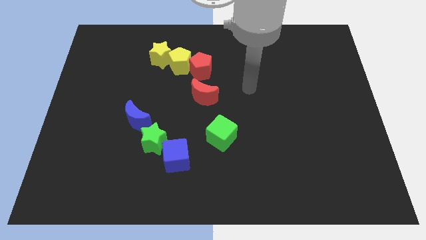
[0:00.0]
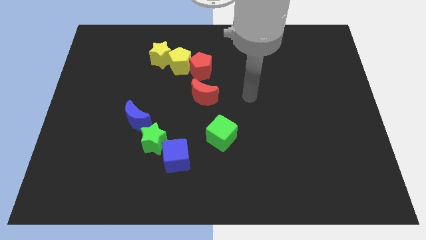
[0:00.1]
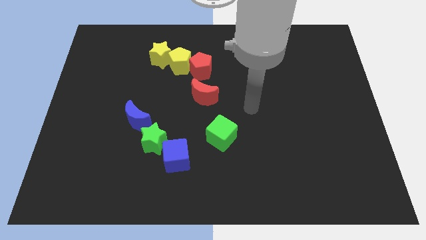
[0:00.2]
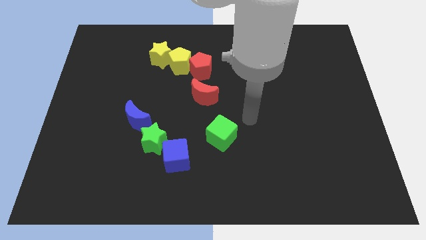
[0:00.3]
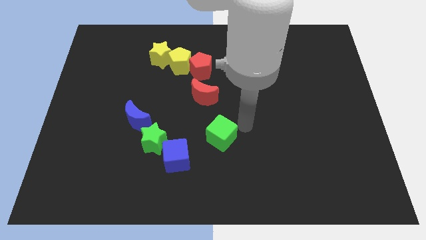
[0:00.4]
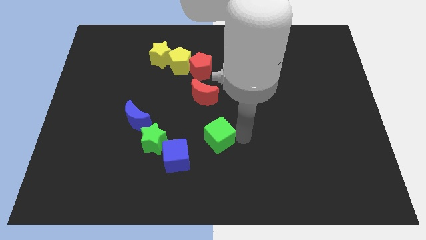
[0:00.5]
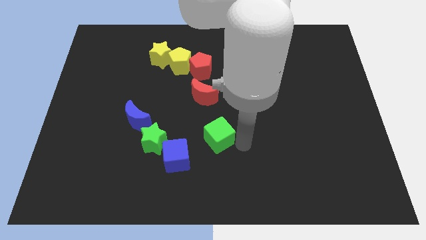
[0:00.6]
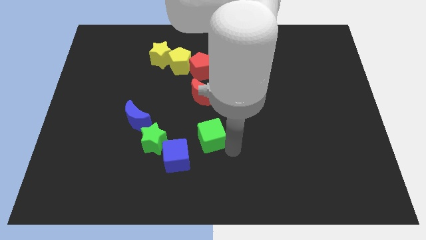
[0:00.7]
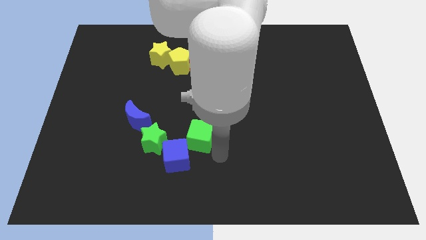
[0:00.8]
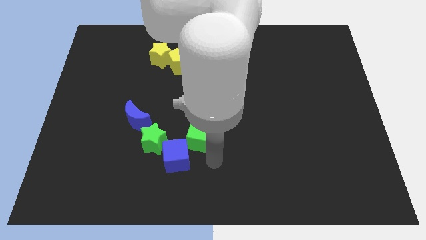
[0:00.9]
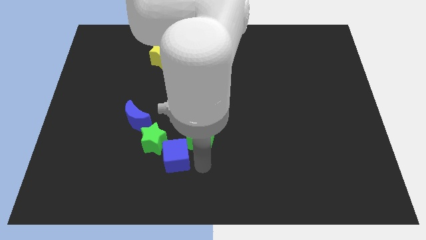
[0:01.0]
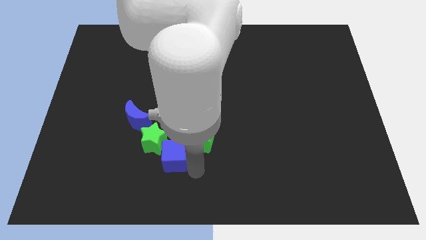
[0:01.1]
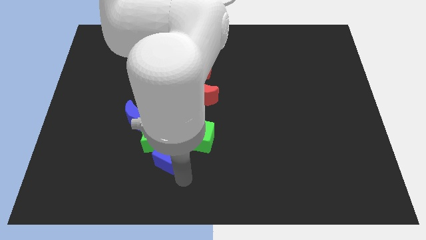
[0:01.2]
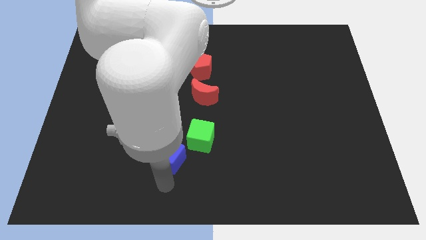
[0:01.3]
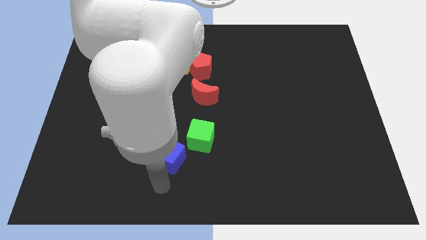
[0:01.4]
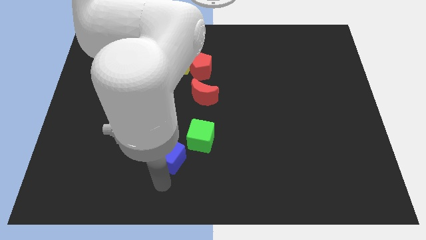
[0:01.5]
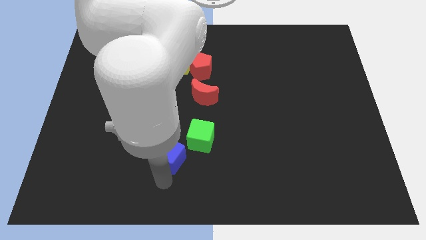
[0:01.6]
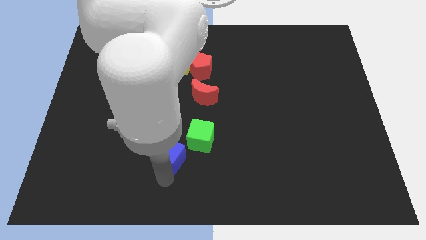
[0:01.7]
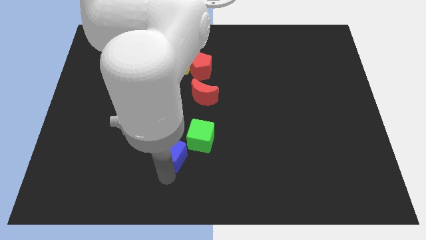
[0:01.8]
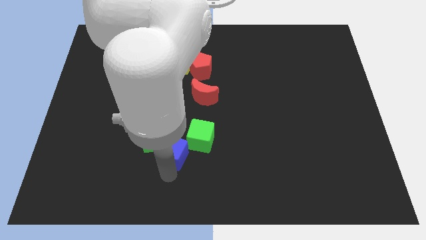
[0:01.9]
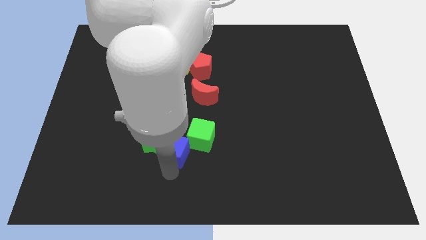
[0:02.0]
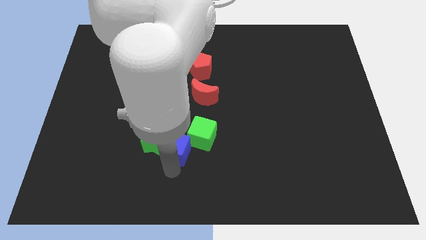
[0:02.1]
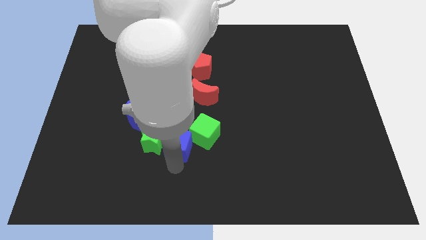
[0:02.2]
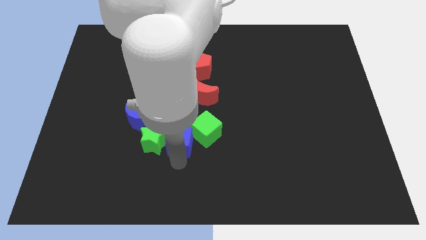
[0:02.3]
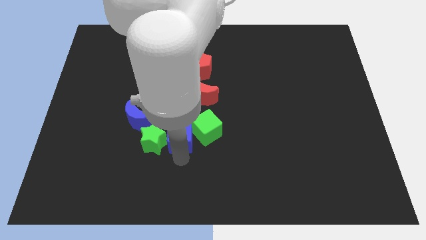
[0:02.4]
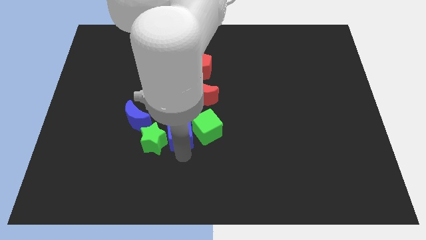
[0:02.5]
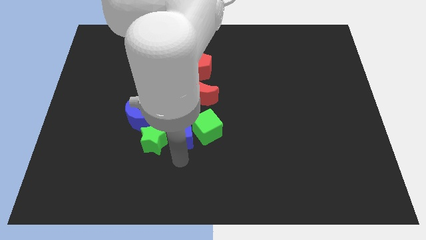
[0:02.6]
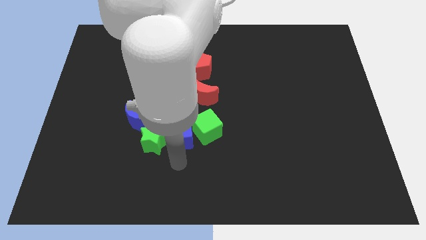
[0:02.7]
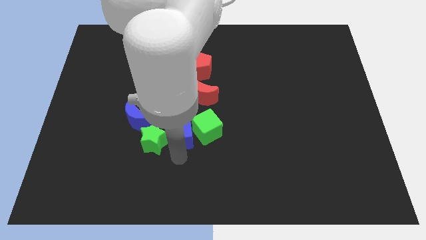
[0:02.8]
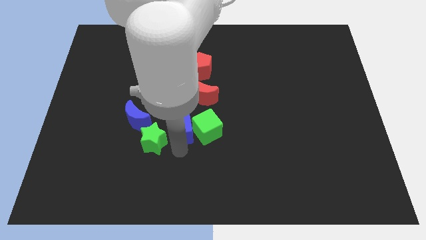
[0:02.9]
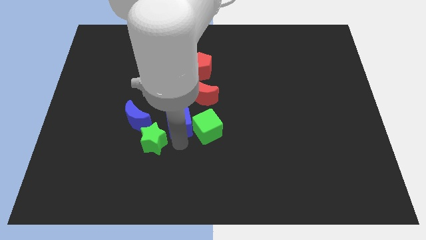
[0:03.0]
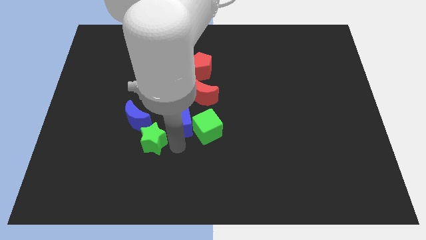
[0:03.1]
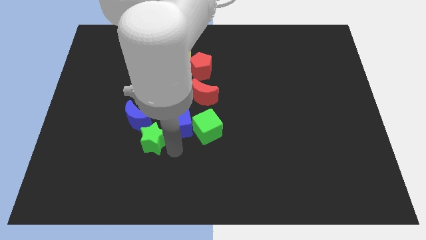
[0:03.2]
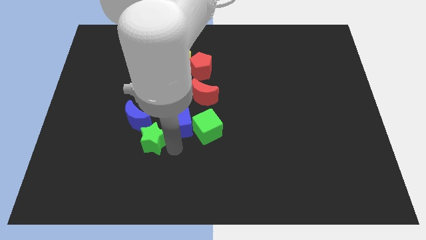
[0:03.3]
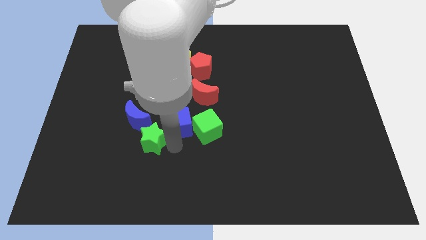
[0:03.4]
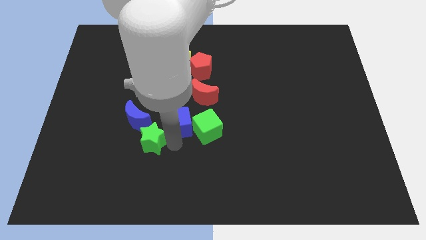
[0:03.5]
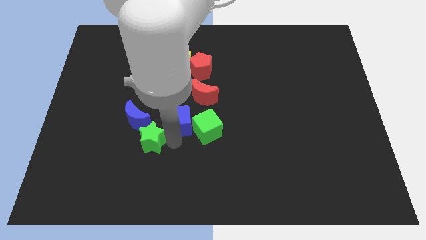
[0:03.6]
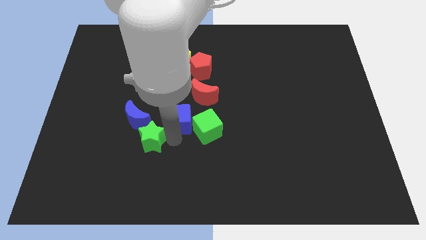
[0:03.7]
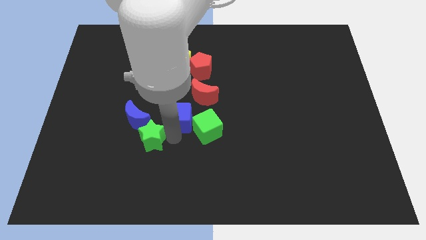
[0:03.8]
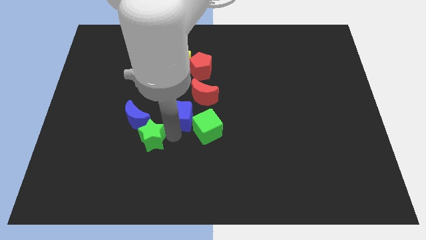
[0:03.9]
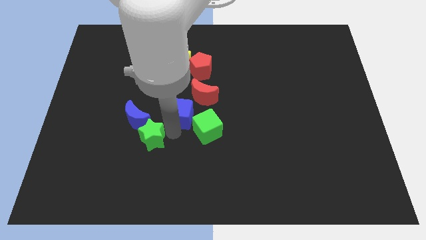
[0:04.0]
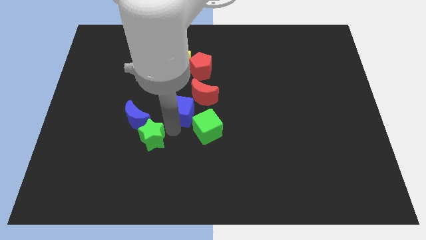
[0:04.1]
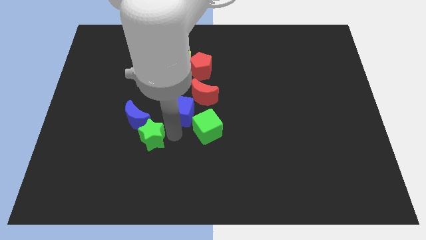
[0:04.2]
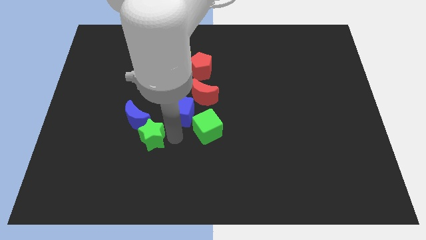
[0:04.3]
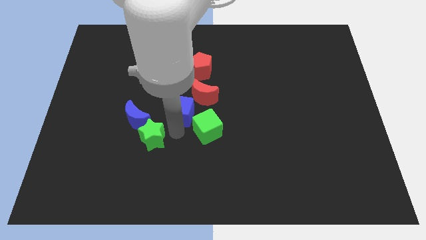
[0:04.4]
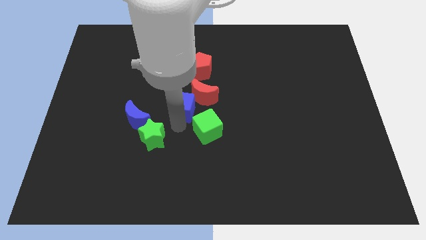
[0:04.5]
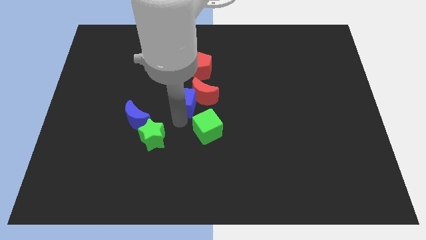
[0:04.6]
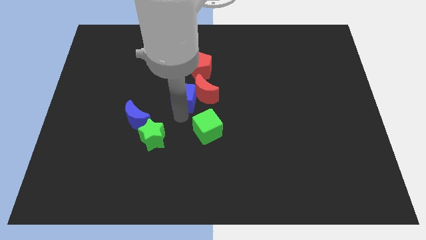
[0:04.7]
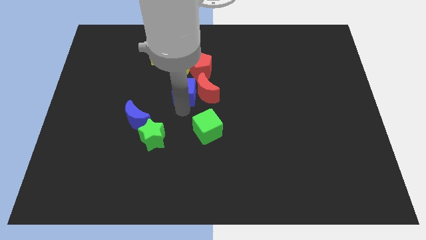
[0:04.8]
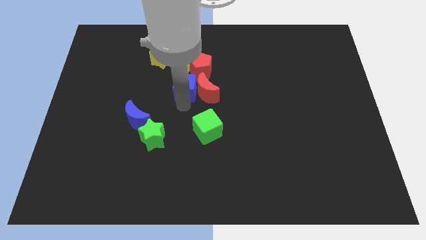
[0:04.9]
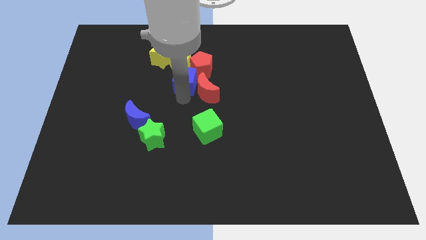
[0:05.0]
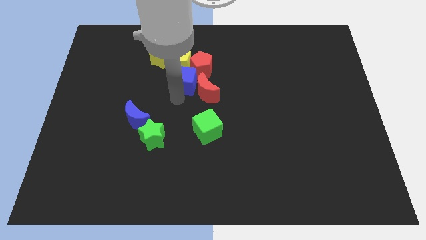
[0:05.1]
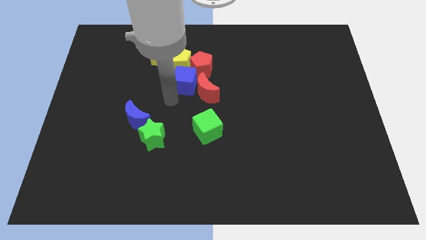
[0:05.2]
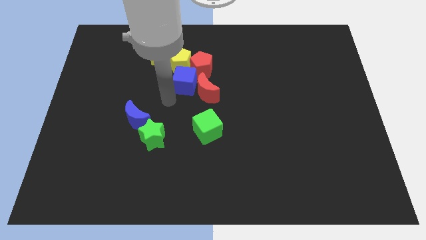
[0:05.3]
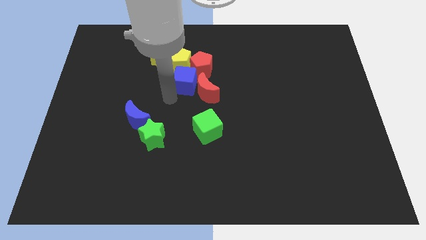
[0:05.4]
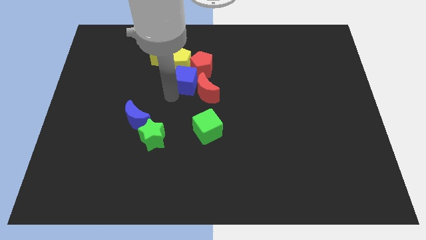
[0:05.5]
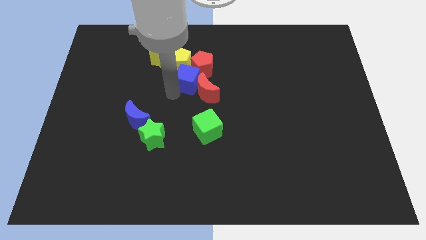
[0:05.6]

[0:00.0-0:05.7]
push the blue cube next to the red pentagon

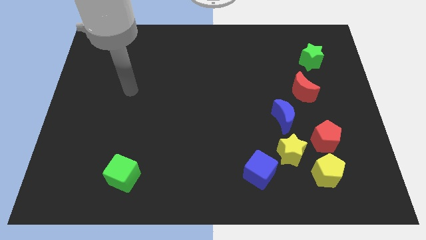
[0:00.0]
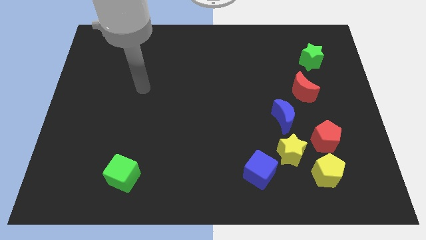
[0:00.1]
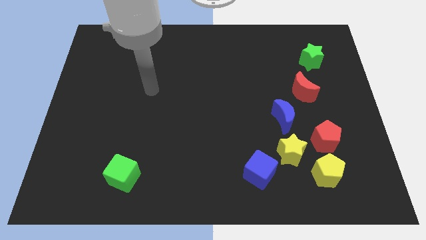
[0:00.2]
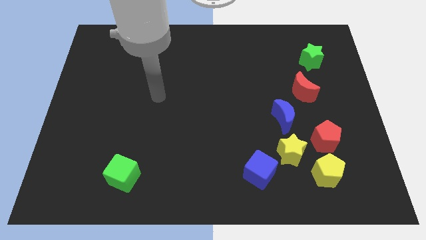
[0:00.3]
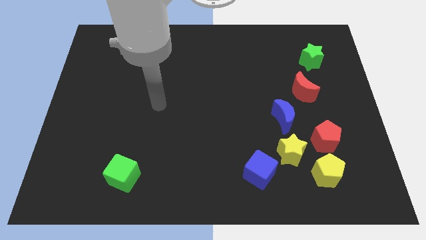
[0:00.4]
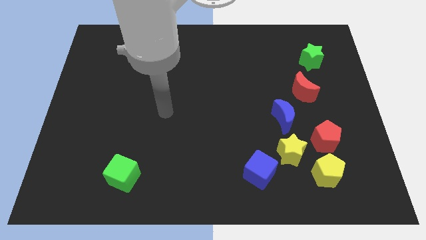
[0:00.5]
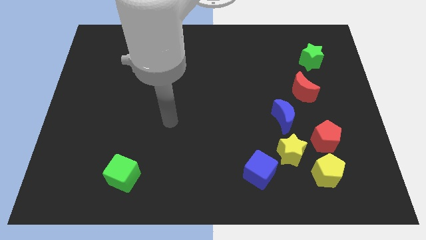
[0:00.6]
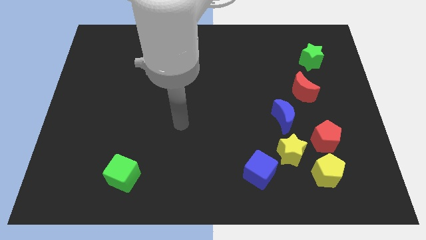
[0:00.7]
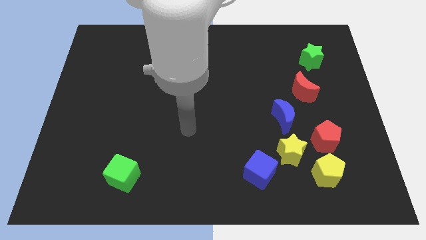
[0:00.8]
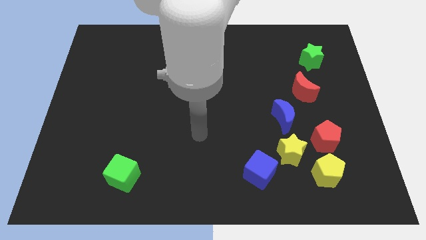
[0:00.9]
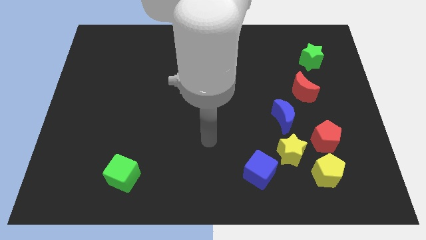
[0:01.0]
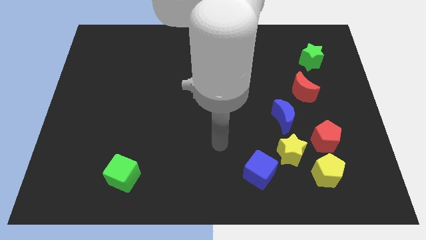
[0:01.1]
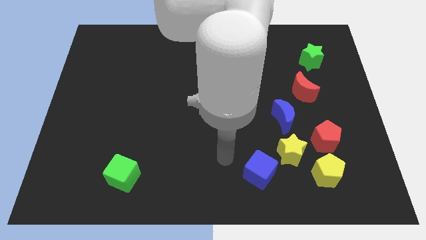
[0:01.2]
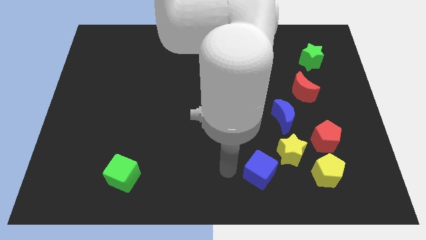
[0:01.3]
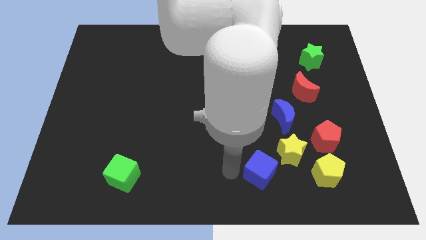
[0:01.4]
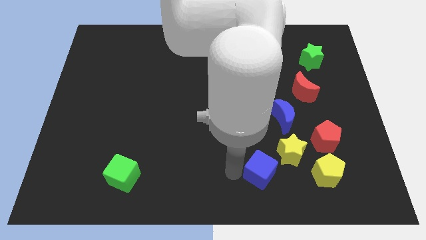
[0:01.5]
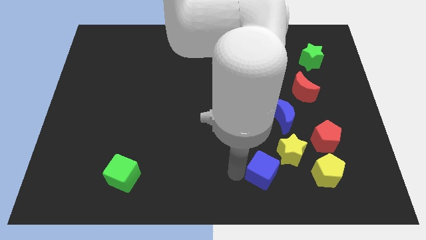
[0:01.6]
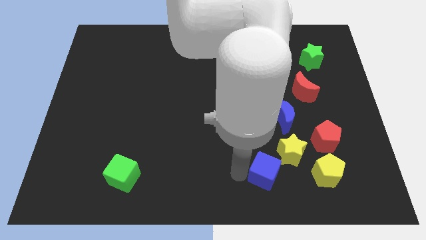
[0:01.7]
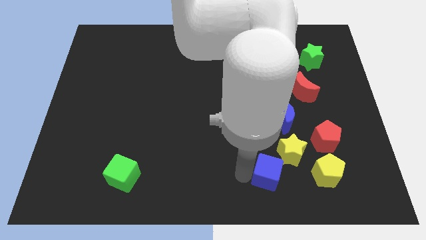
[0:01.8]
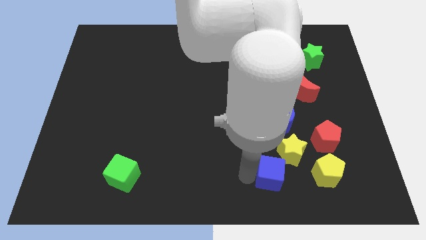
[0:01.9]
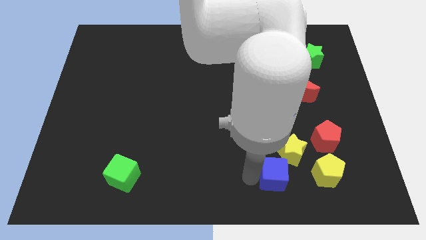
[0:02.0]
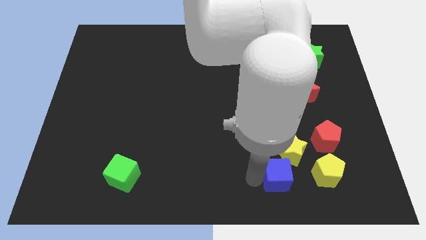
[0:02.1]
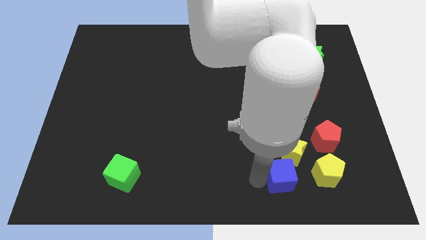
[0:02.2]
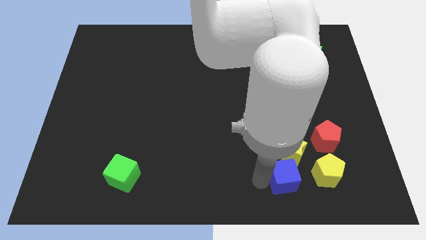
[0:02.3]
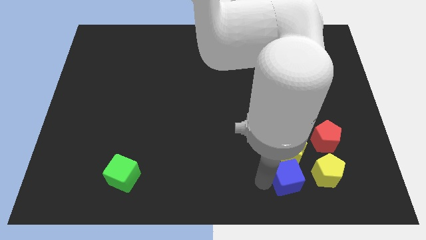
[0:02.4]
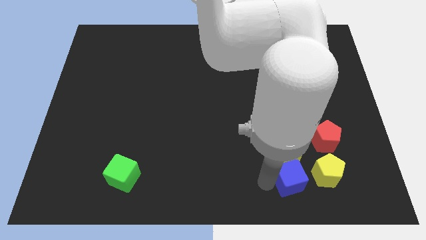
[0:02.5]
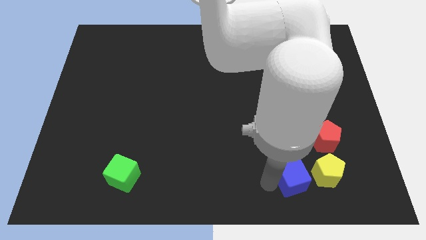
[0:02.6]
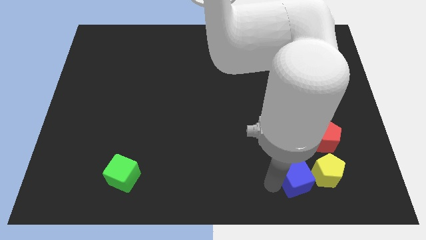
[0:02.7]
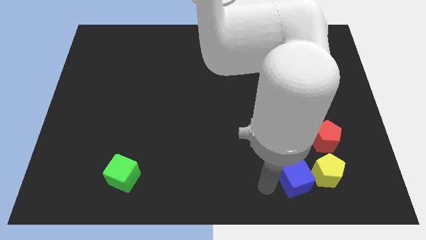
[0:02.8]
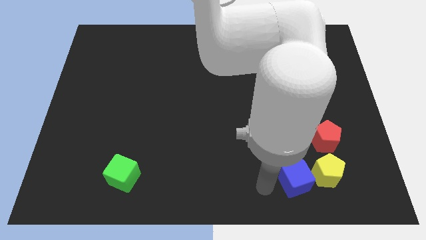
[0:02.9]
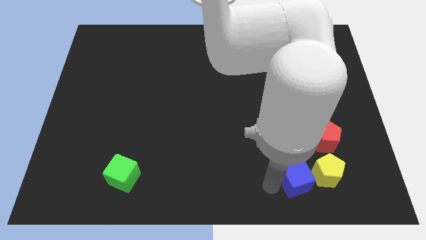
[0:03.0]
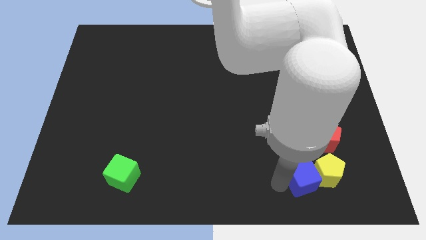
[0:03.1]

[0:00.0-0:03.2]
move the blue cube close to the yellow pentagon
